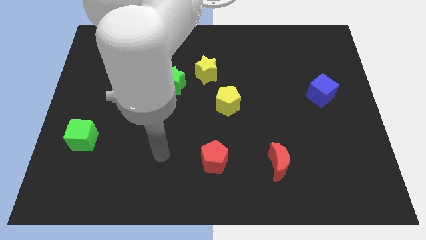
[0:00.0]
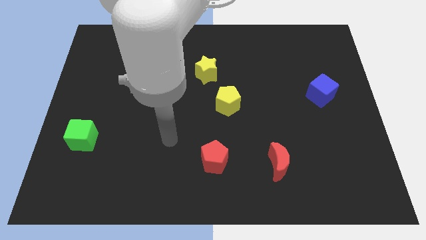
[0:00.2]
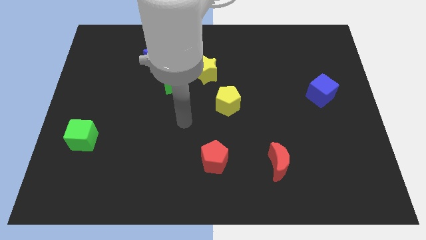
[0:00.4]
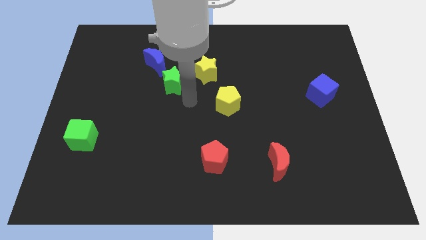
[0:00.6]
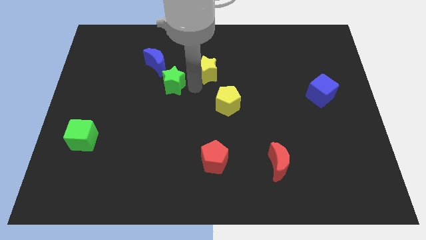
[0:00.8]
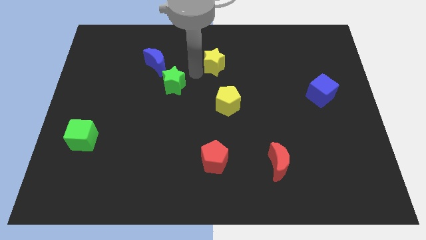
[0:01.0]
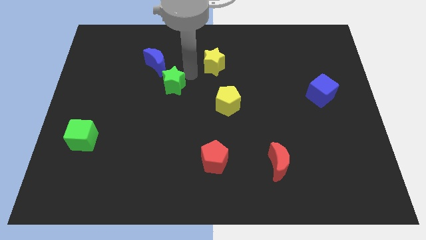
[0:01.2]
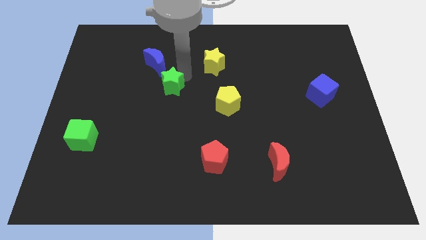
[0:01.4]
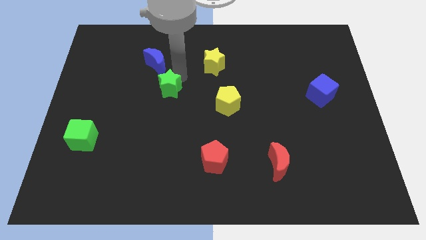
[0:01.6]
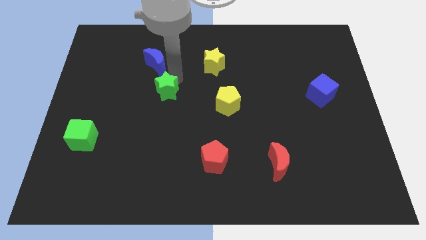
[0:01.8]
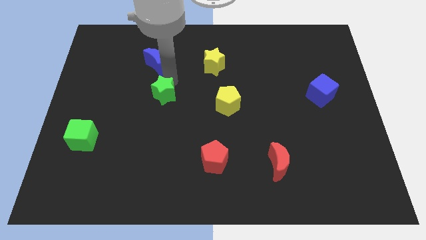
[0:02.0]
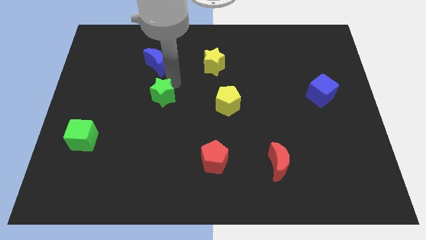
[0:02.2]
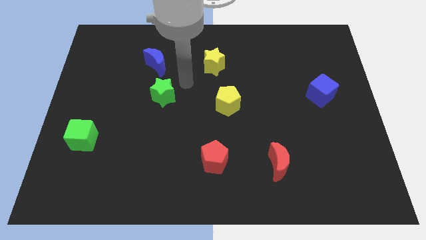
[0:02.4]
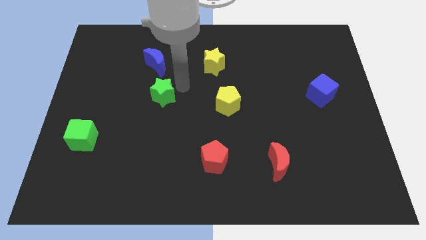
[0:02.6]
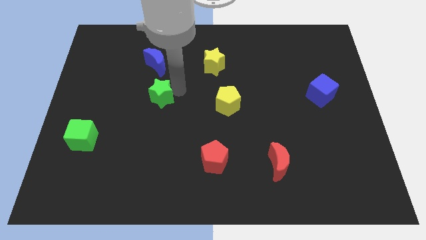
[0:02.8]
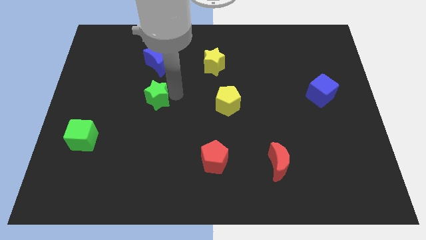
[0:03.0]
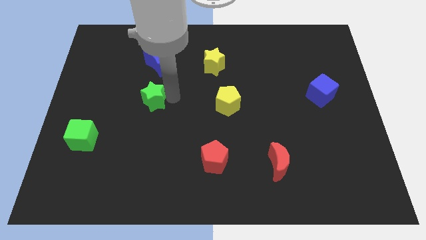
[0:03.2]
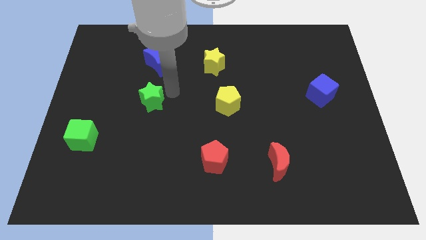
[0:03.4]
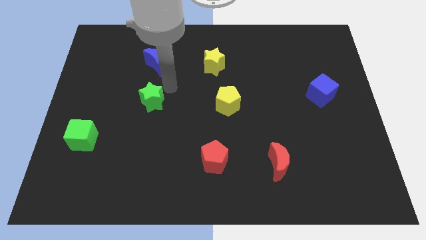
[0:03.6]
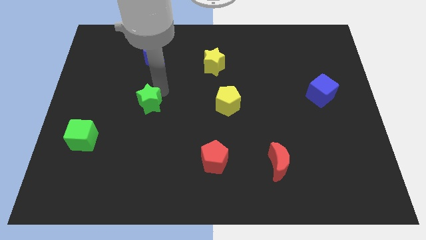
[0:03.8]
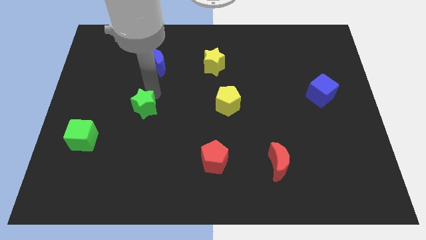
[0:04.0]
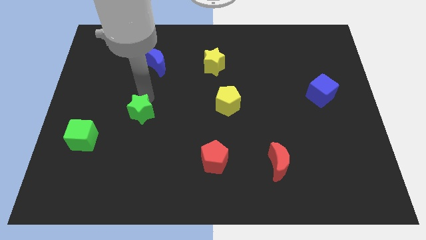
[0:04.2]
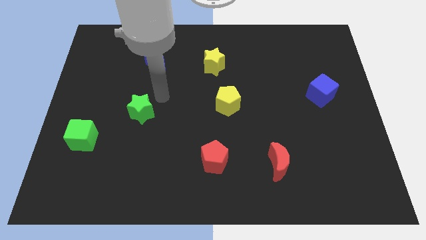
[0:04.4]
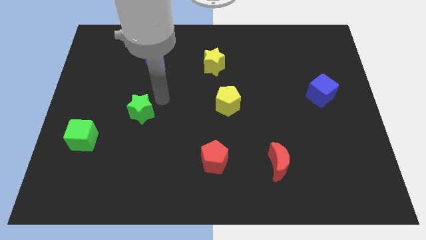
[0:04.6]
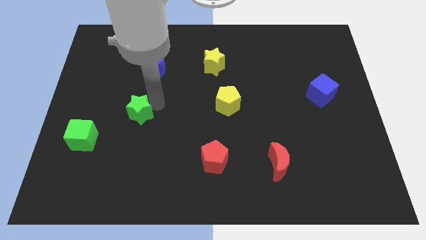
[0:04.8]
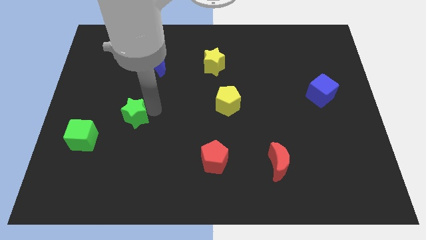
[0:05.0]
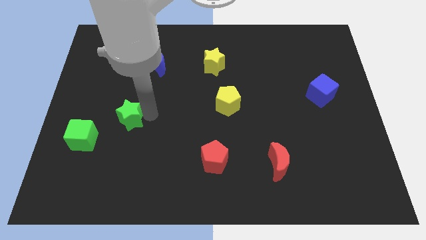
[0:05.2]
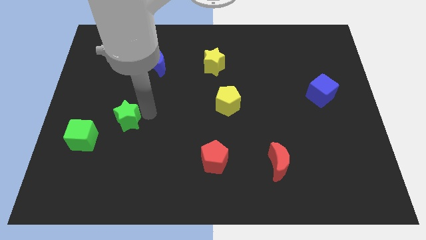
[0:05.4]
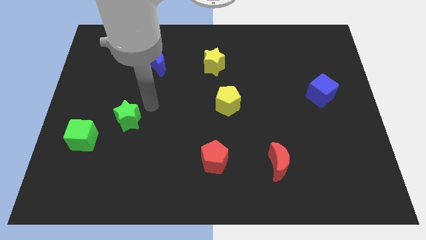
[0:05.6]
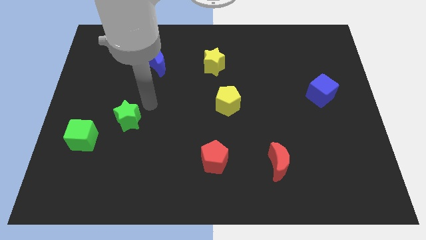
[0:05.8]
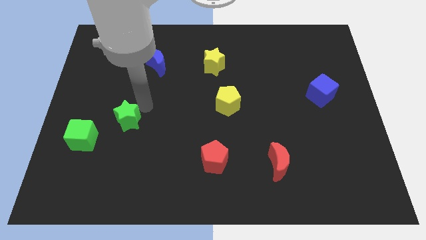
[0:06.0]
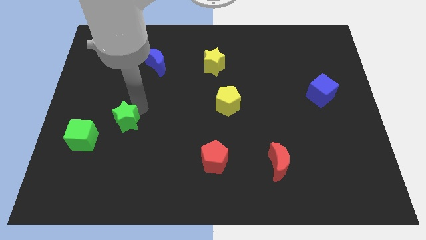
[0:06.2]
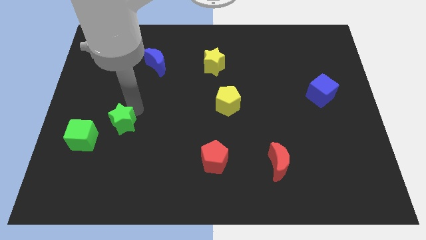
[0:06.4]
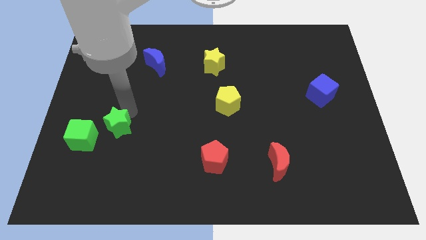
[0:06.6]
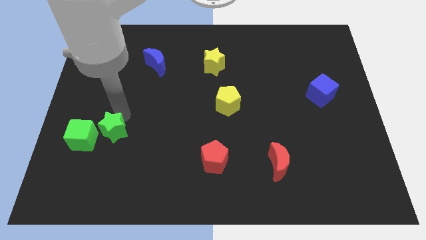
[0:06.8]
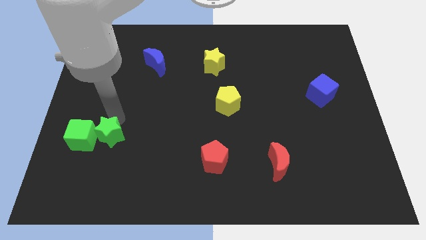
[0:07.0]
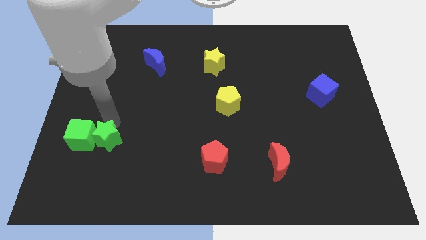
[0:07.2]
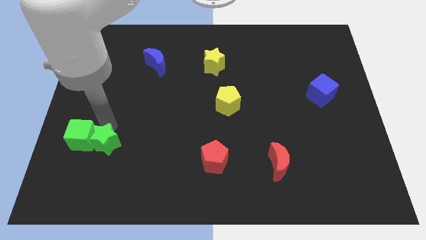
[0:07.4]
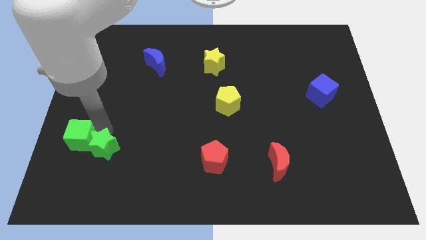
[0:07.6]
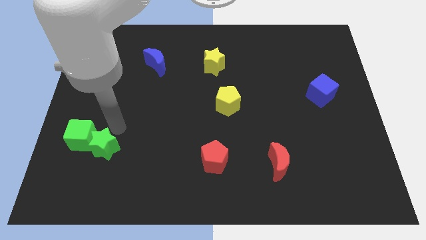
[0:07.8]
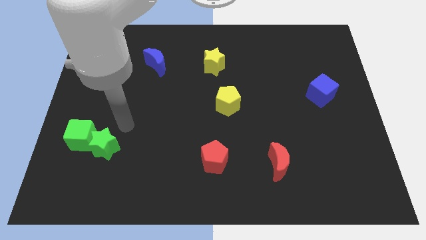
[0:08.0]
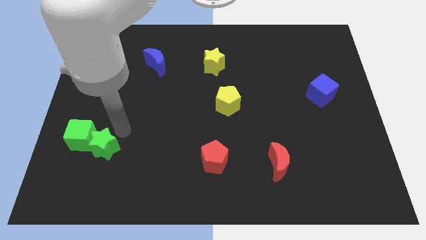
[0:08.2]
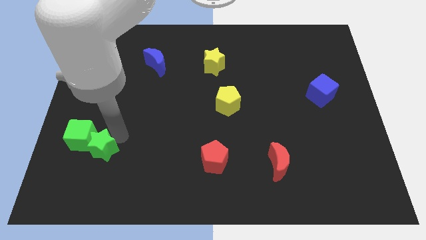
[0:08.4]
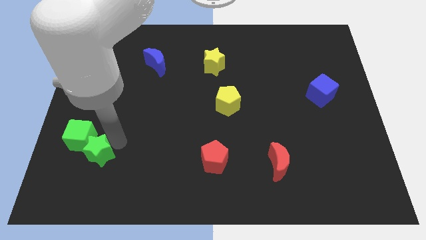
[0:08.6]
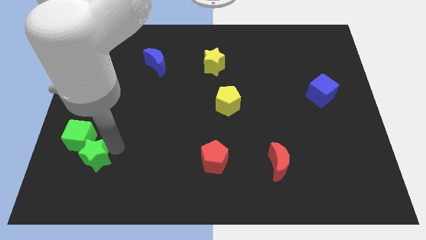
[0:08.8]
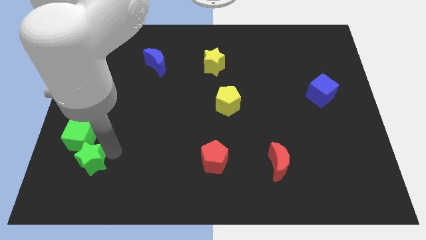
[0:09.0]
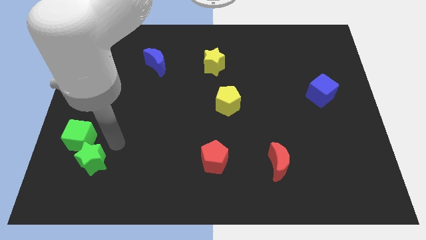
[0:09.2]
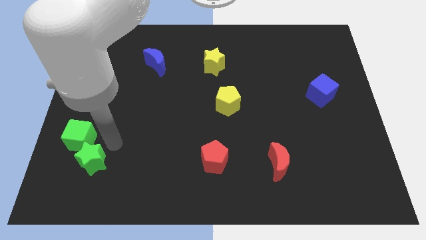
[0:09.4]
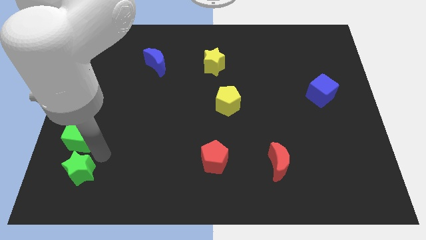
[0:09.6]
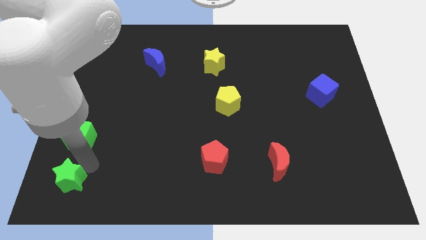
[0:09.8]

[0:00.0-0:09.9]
put the green star to the bottom left corner

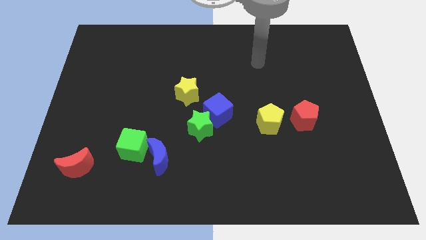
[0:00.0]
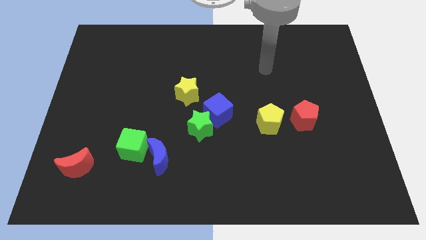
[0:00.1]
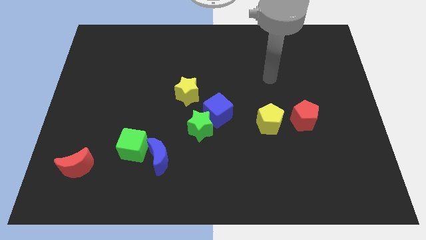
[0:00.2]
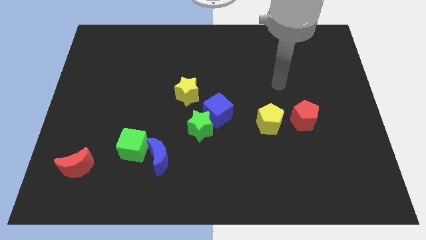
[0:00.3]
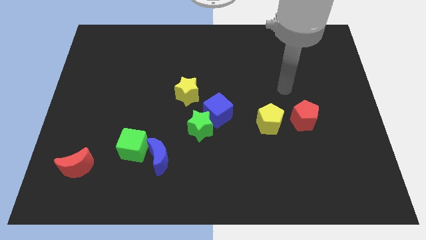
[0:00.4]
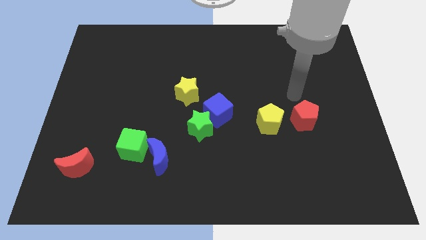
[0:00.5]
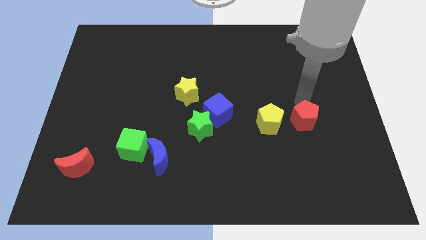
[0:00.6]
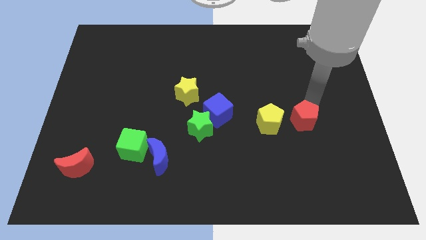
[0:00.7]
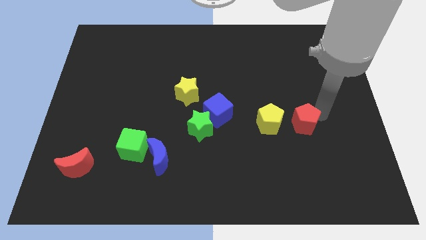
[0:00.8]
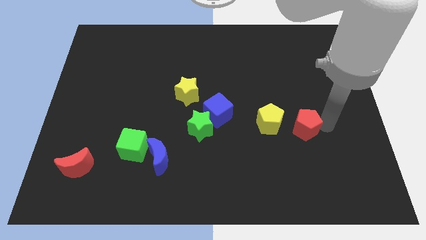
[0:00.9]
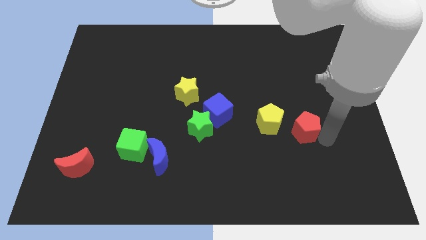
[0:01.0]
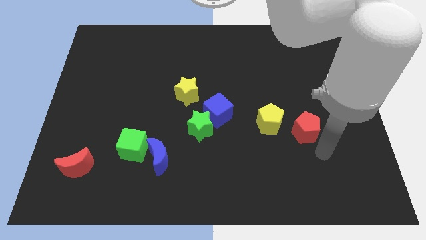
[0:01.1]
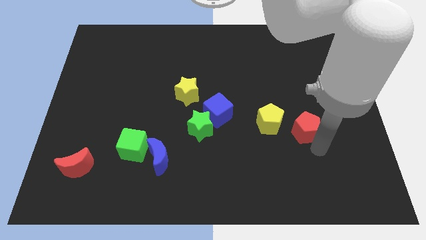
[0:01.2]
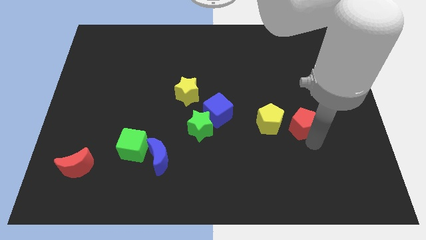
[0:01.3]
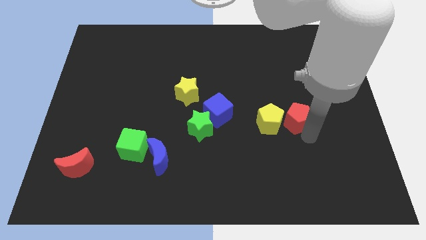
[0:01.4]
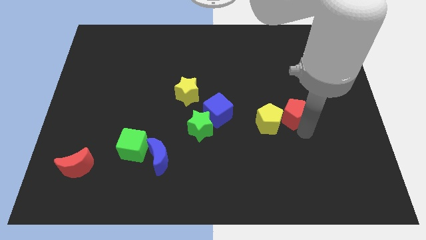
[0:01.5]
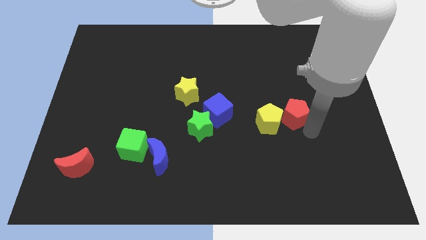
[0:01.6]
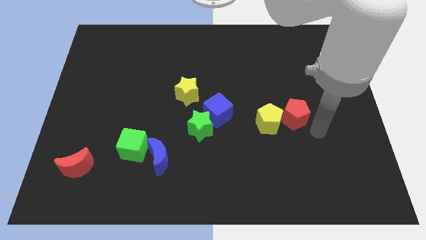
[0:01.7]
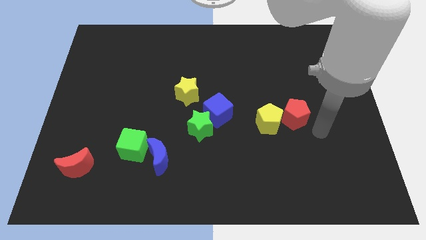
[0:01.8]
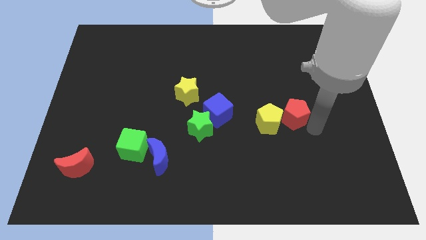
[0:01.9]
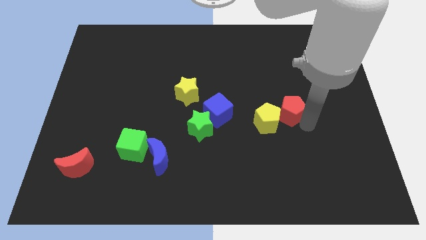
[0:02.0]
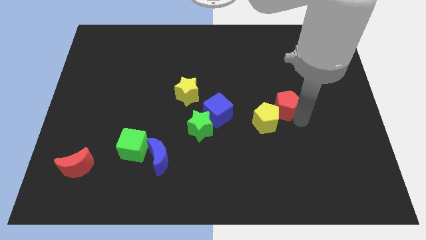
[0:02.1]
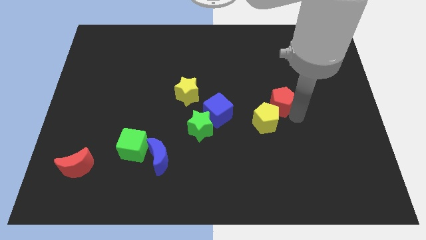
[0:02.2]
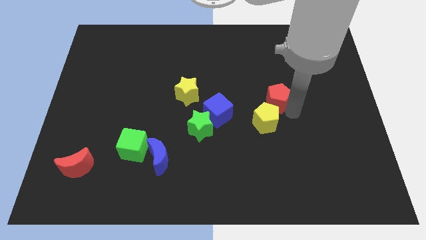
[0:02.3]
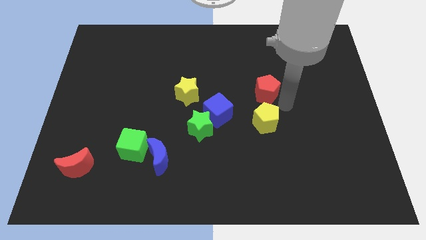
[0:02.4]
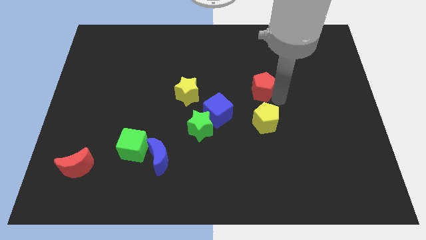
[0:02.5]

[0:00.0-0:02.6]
push the red pentagon to the middle
